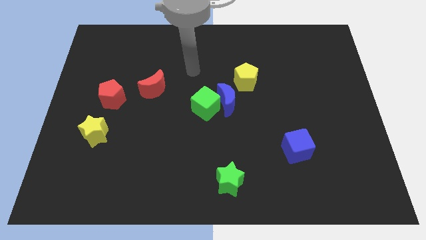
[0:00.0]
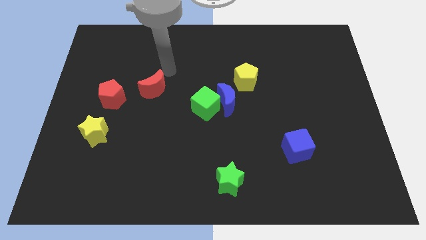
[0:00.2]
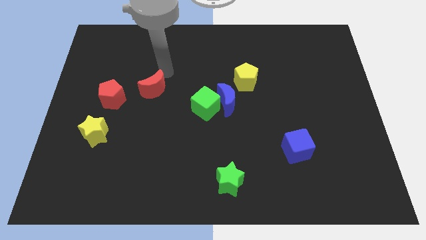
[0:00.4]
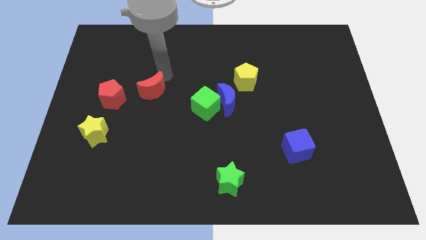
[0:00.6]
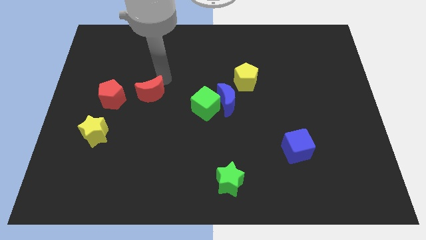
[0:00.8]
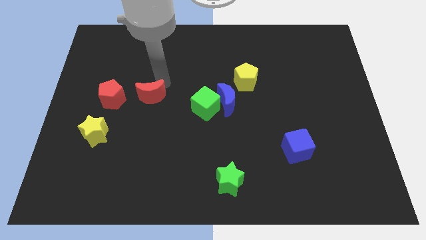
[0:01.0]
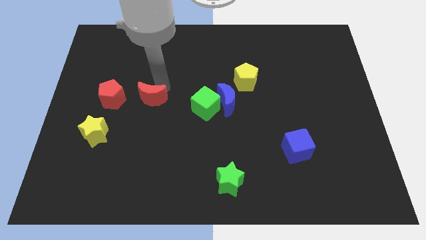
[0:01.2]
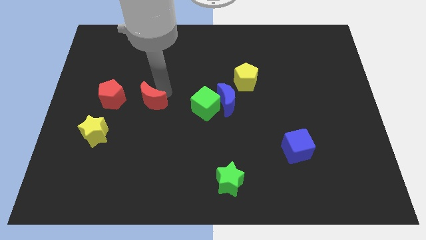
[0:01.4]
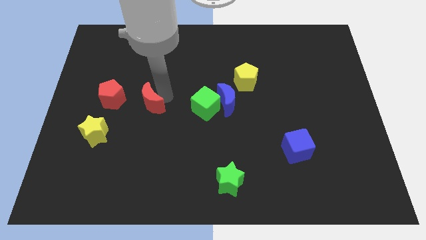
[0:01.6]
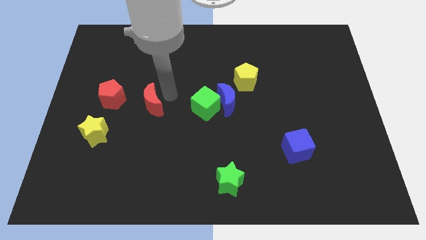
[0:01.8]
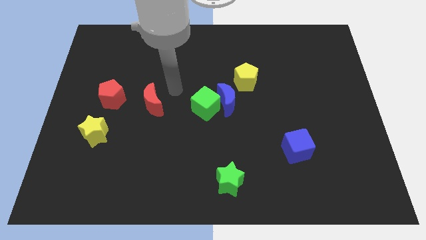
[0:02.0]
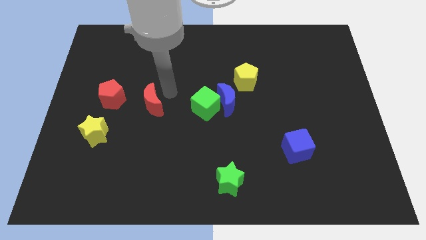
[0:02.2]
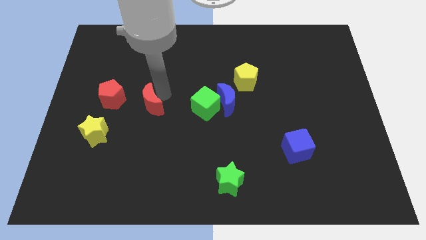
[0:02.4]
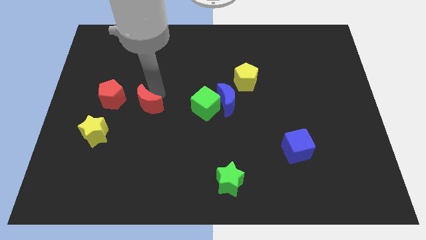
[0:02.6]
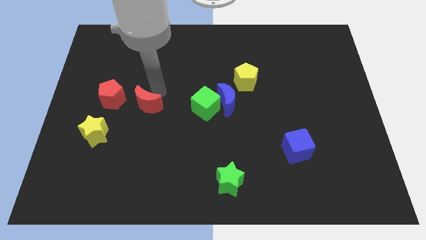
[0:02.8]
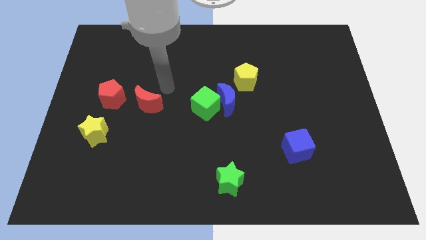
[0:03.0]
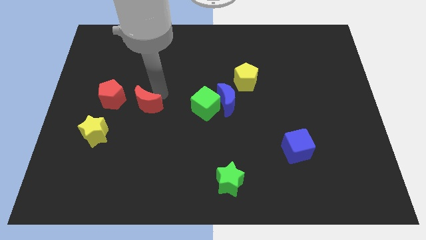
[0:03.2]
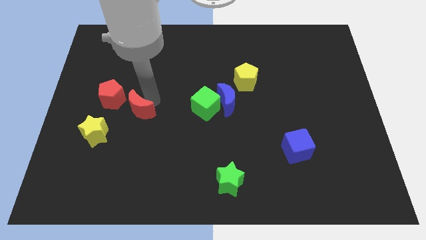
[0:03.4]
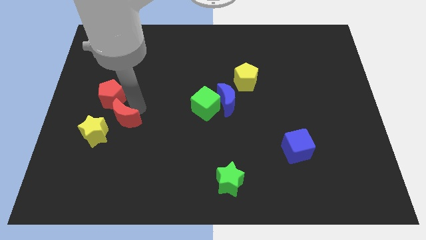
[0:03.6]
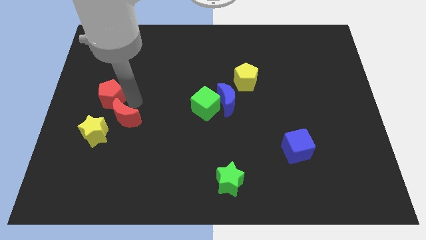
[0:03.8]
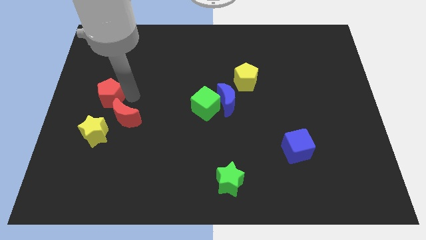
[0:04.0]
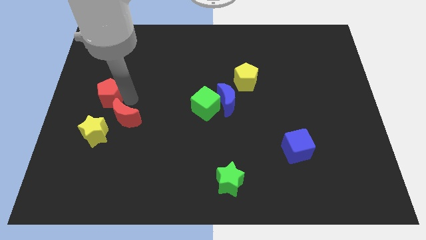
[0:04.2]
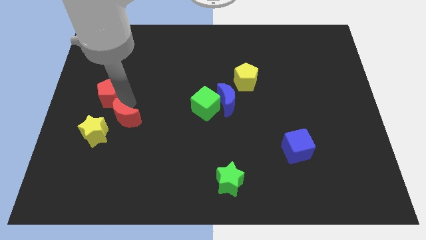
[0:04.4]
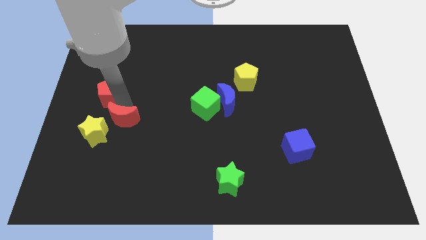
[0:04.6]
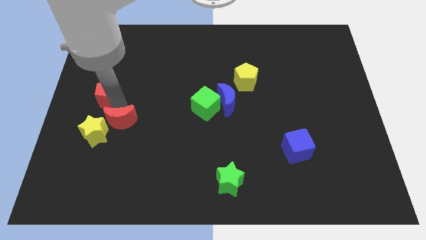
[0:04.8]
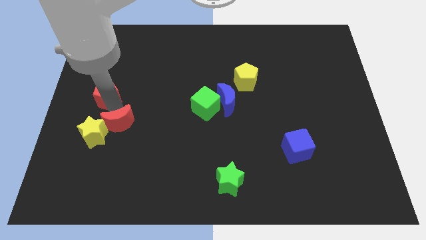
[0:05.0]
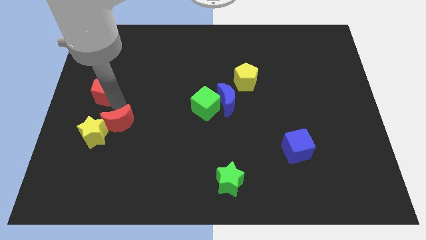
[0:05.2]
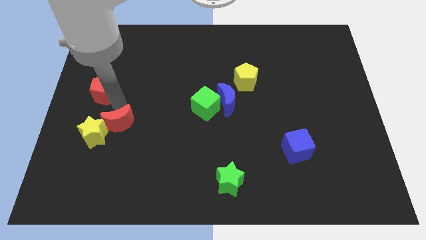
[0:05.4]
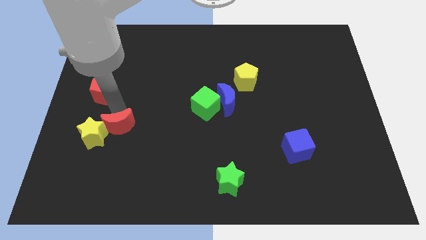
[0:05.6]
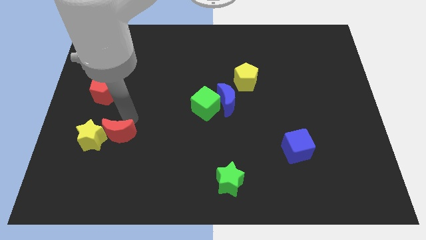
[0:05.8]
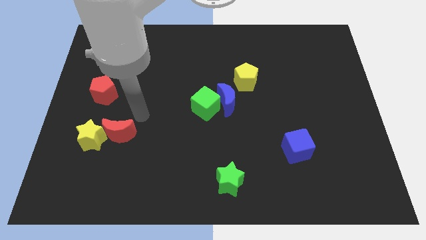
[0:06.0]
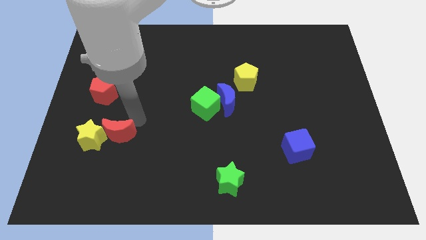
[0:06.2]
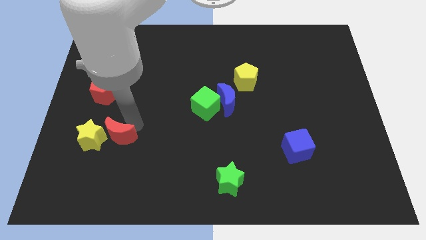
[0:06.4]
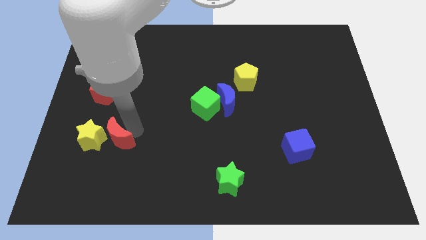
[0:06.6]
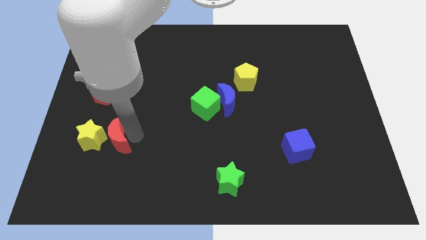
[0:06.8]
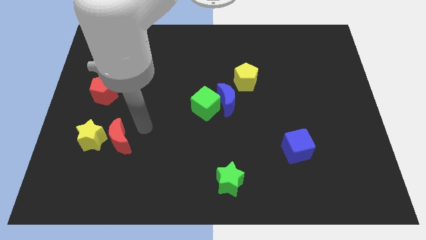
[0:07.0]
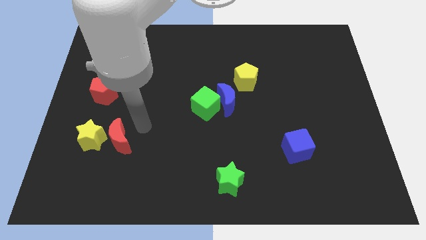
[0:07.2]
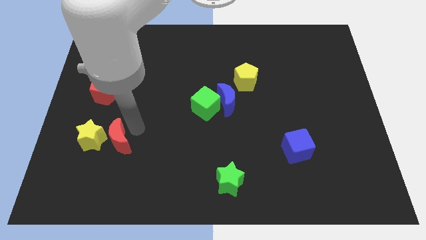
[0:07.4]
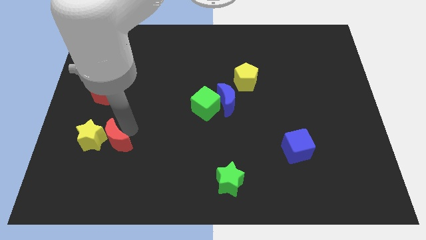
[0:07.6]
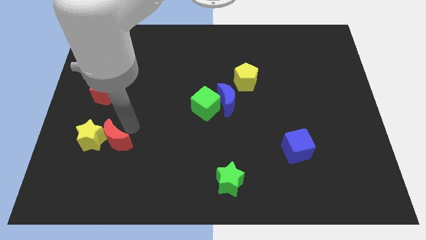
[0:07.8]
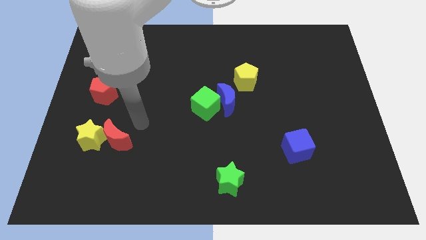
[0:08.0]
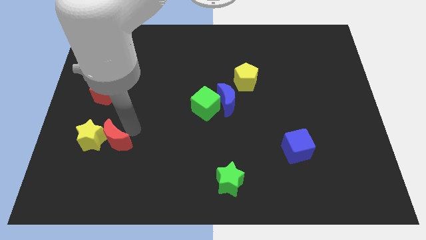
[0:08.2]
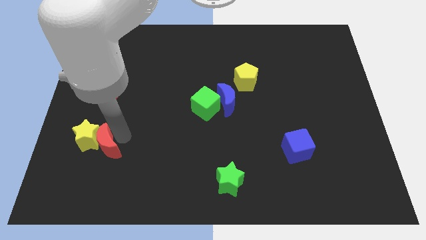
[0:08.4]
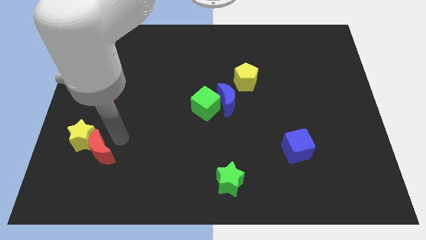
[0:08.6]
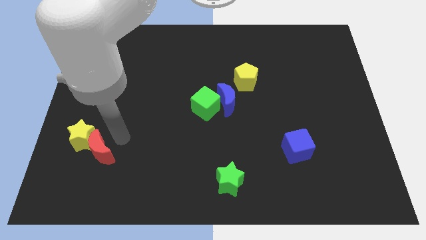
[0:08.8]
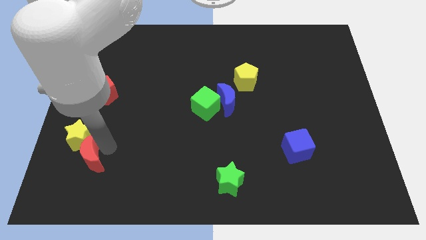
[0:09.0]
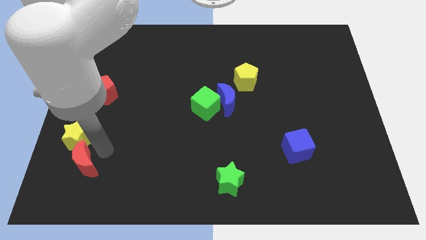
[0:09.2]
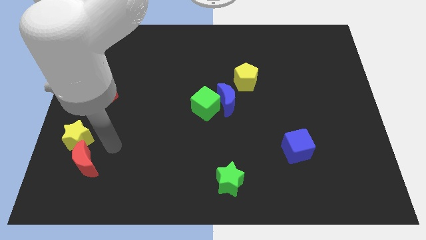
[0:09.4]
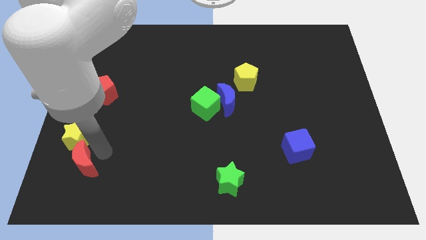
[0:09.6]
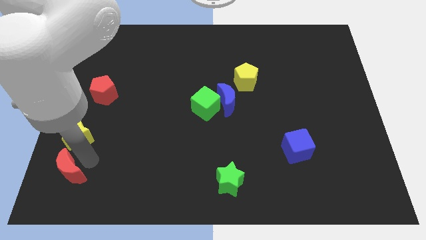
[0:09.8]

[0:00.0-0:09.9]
slide the red moon to the bottom left corner

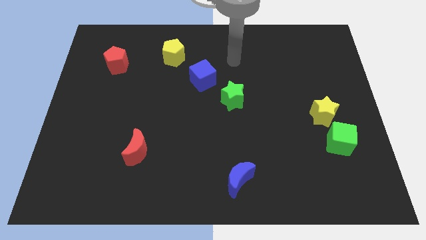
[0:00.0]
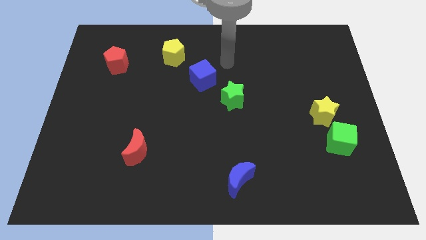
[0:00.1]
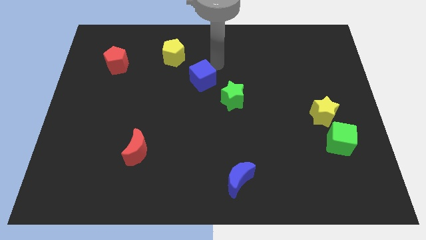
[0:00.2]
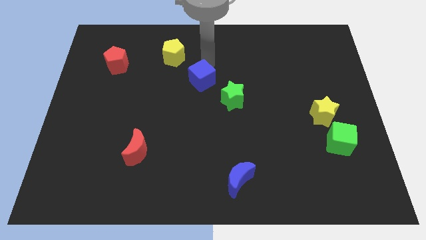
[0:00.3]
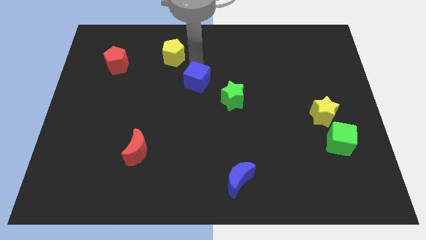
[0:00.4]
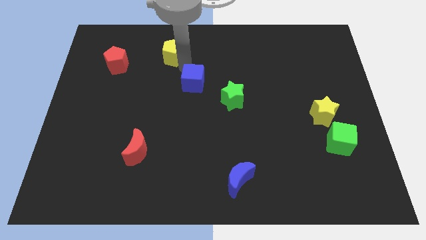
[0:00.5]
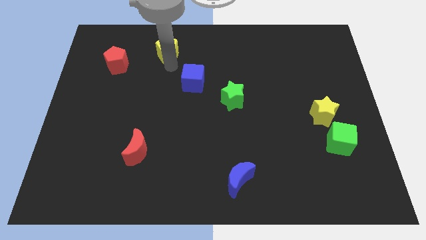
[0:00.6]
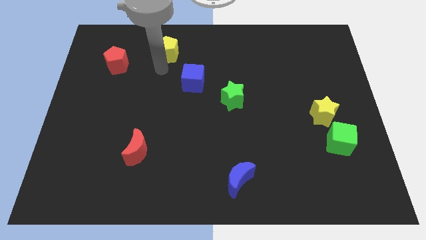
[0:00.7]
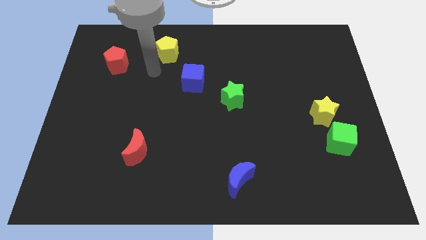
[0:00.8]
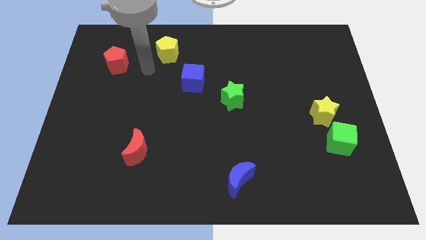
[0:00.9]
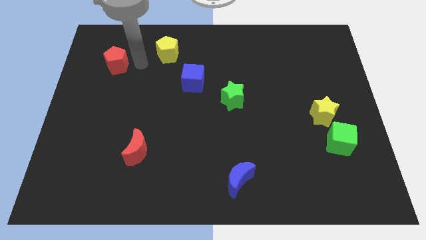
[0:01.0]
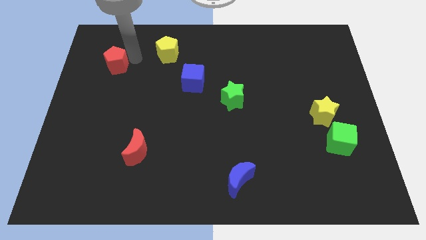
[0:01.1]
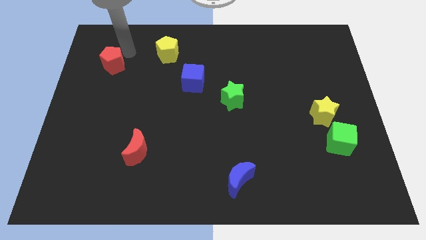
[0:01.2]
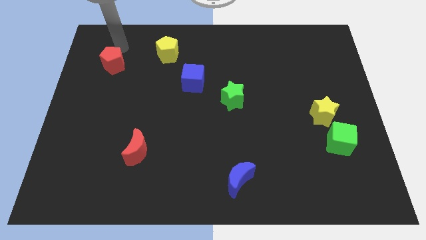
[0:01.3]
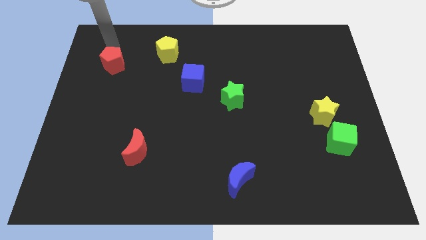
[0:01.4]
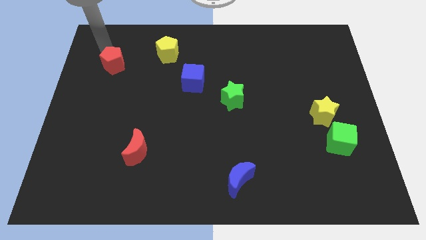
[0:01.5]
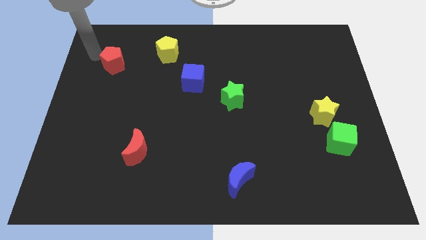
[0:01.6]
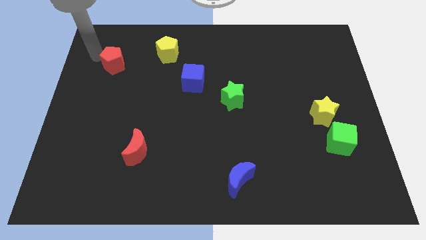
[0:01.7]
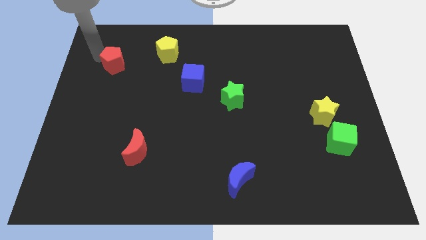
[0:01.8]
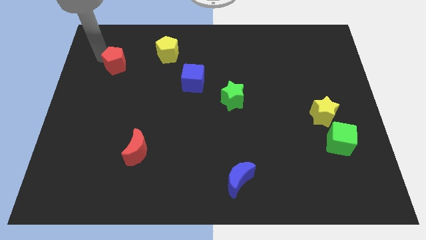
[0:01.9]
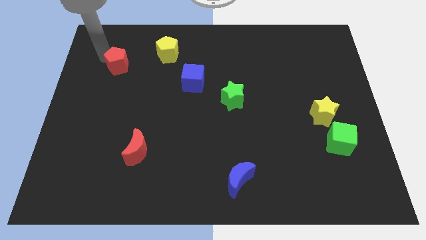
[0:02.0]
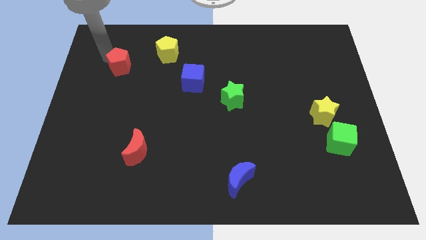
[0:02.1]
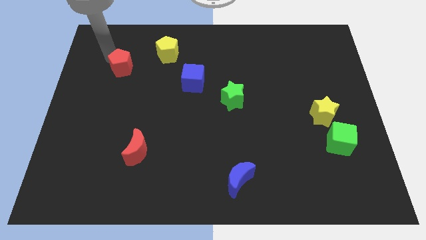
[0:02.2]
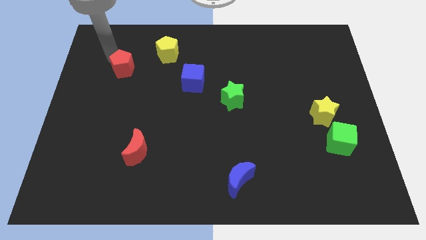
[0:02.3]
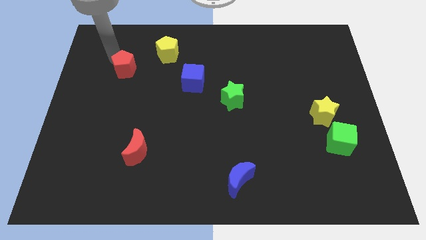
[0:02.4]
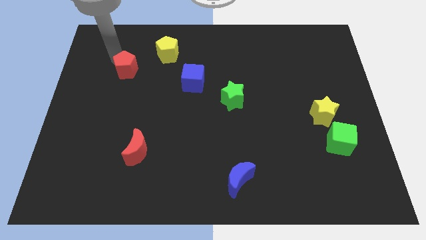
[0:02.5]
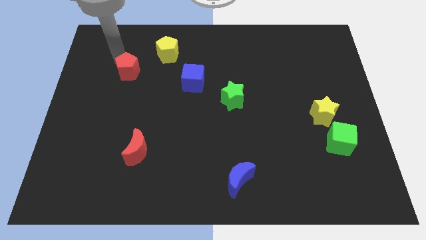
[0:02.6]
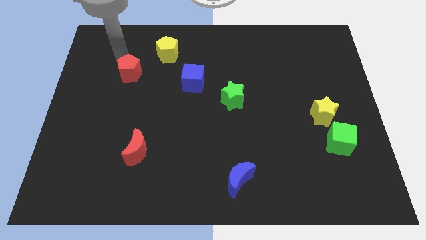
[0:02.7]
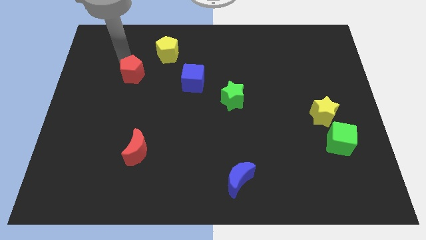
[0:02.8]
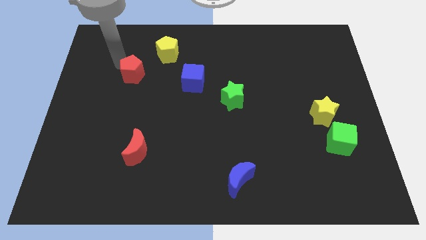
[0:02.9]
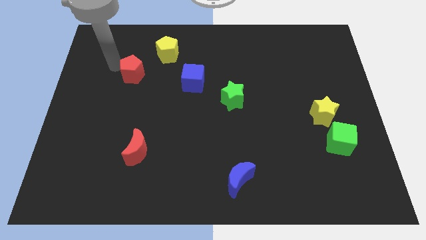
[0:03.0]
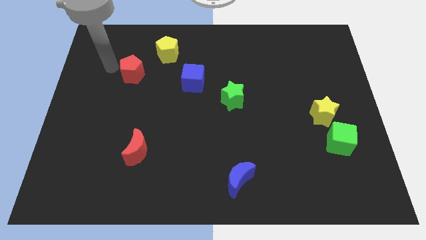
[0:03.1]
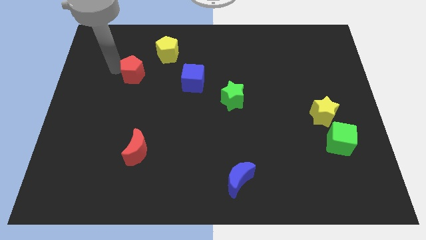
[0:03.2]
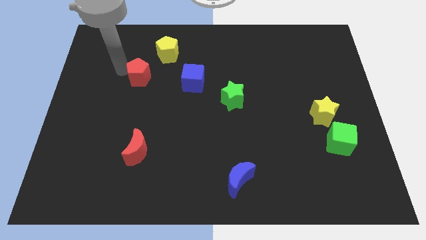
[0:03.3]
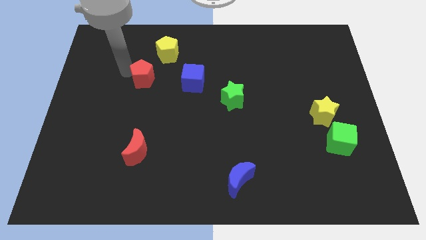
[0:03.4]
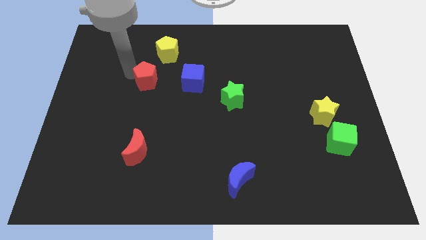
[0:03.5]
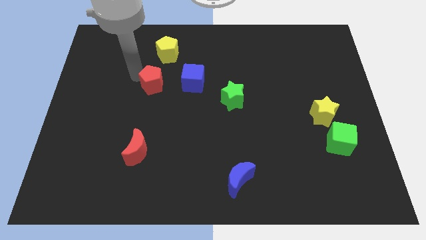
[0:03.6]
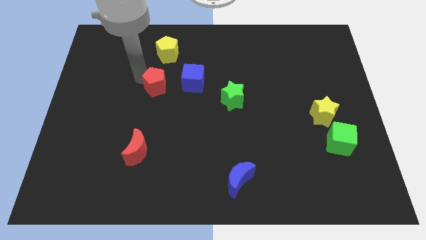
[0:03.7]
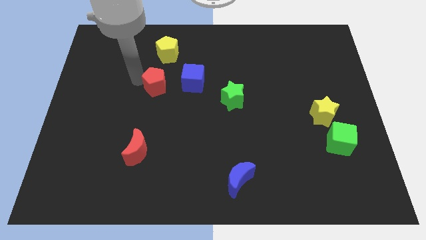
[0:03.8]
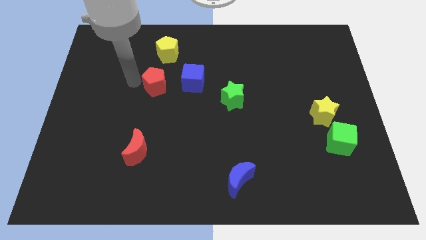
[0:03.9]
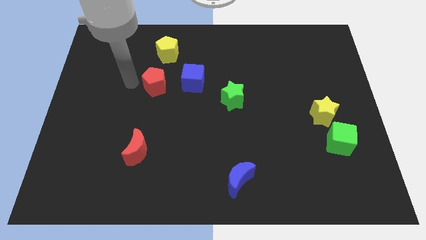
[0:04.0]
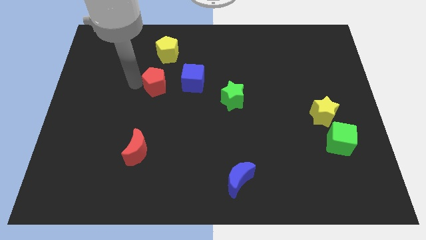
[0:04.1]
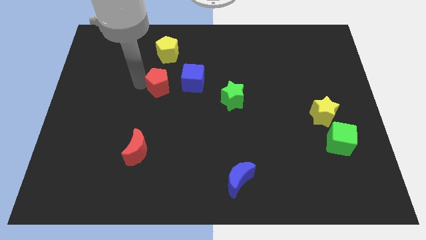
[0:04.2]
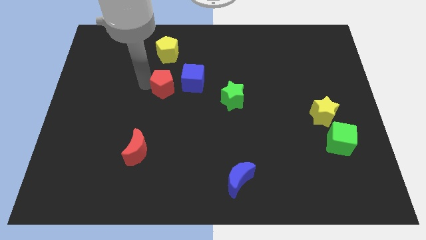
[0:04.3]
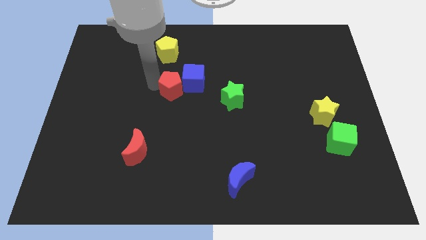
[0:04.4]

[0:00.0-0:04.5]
push the red pentagon to the center
